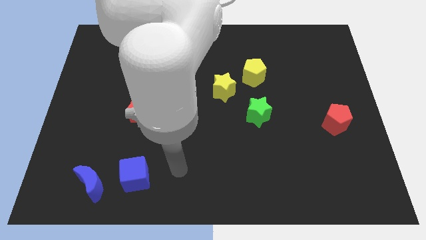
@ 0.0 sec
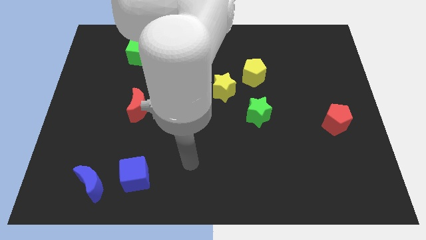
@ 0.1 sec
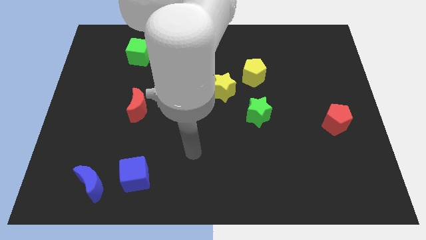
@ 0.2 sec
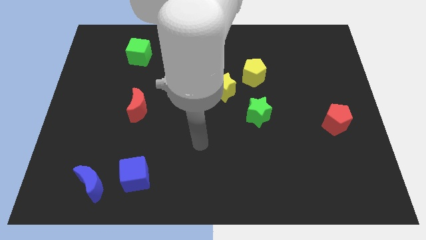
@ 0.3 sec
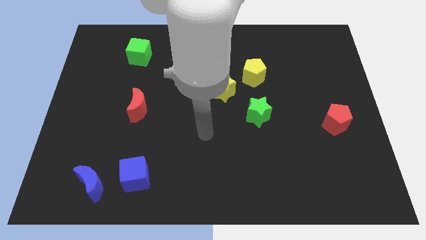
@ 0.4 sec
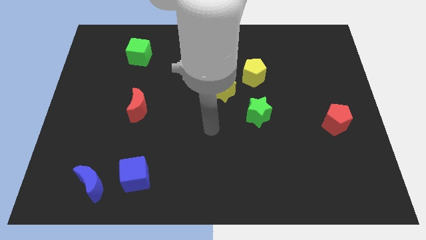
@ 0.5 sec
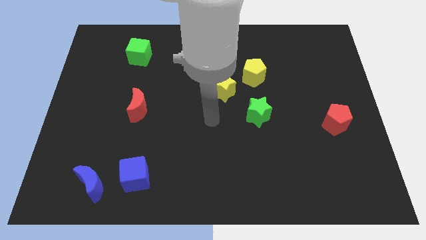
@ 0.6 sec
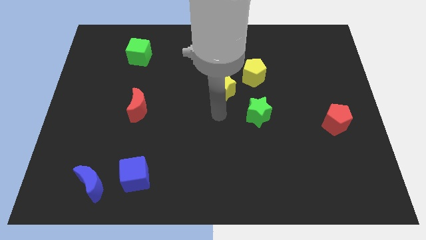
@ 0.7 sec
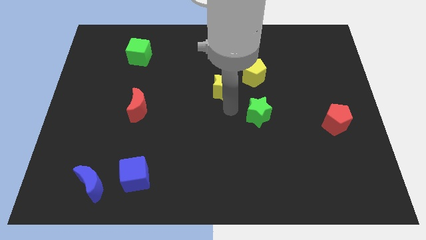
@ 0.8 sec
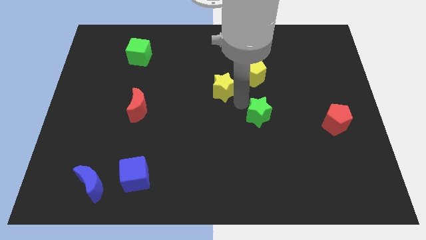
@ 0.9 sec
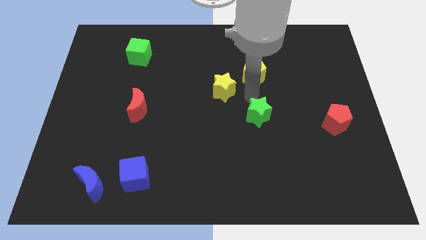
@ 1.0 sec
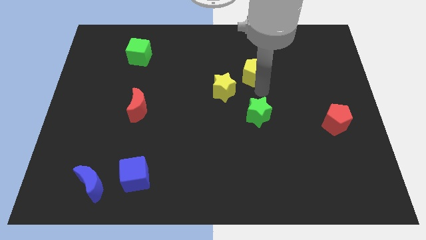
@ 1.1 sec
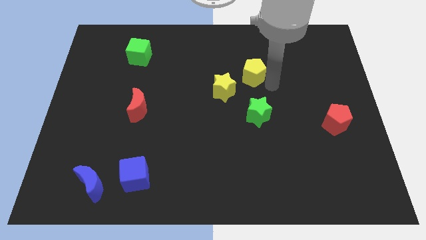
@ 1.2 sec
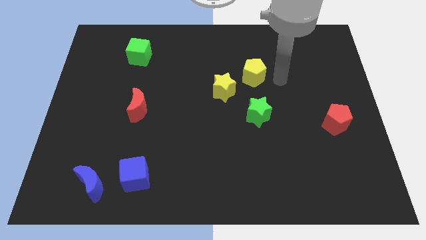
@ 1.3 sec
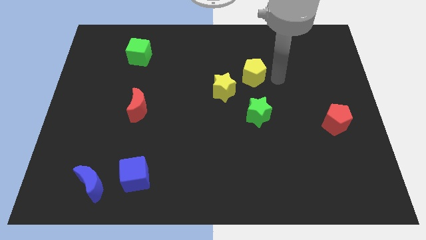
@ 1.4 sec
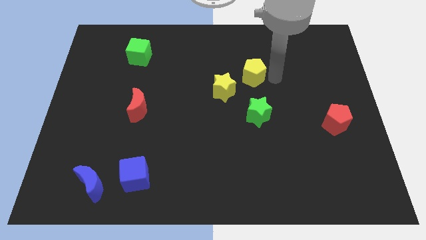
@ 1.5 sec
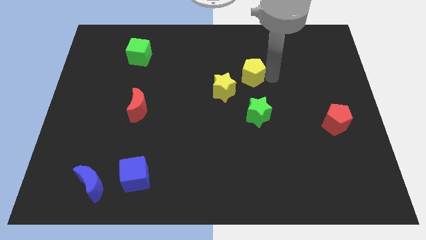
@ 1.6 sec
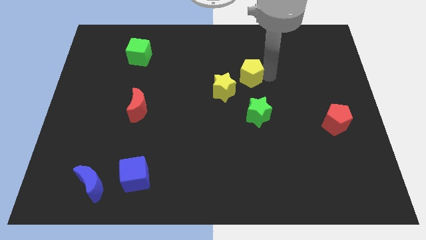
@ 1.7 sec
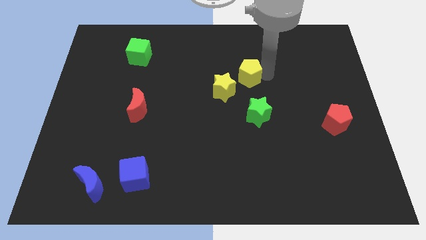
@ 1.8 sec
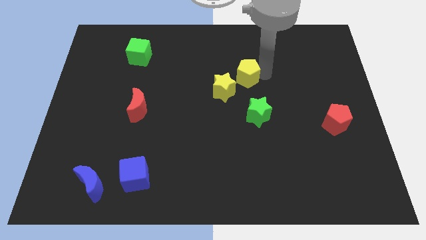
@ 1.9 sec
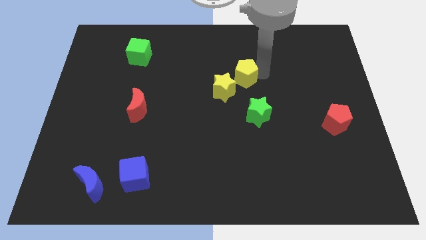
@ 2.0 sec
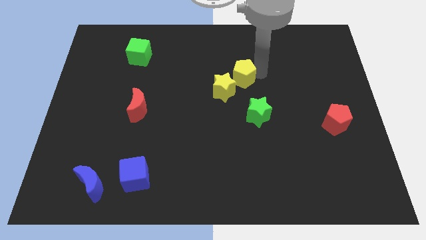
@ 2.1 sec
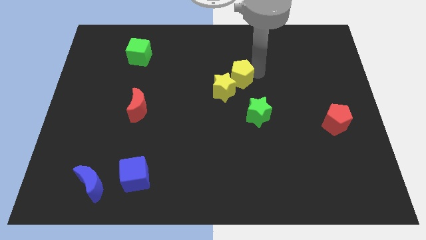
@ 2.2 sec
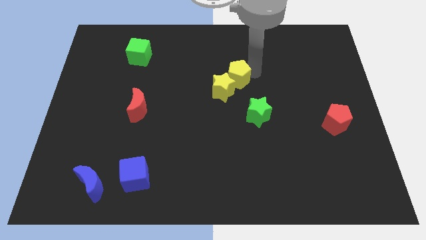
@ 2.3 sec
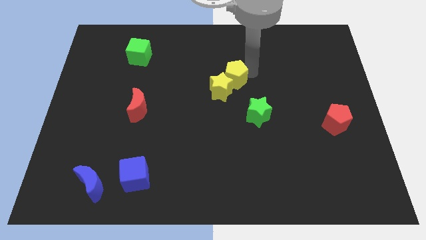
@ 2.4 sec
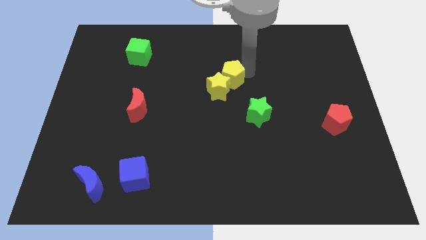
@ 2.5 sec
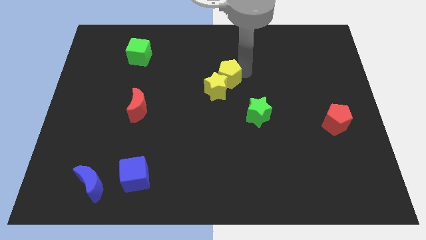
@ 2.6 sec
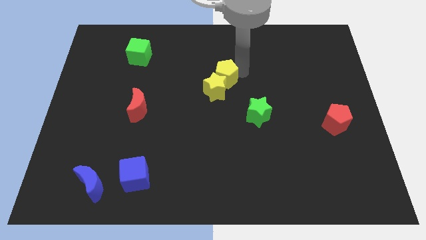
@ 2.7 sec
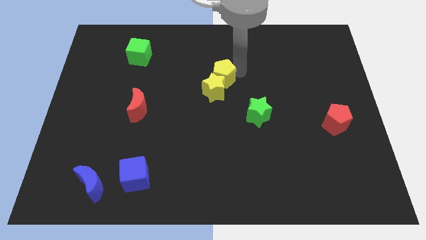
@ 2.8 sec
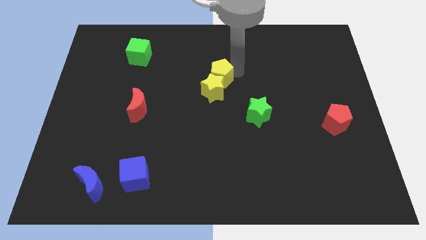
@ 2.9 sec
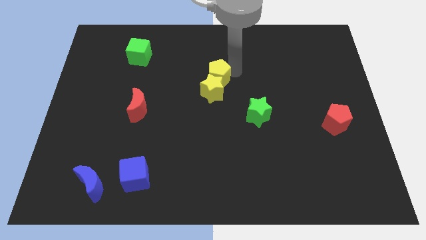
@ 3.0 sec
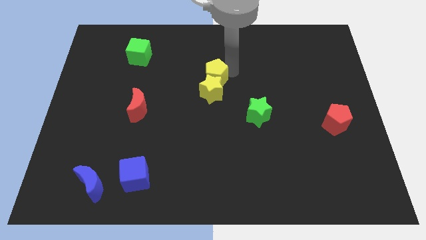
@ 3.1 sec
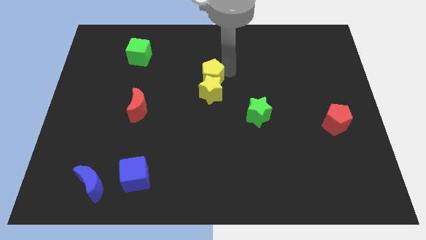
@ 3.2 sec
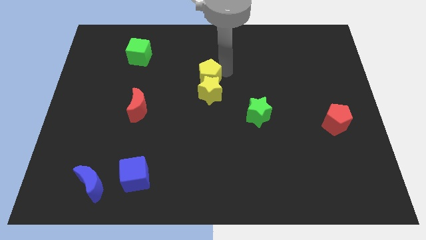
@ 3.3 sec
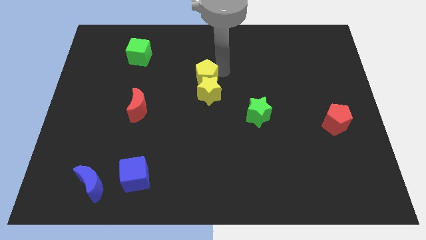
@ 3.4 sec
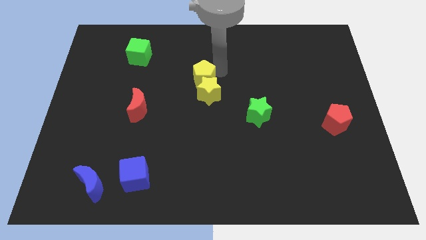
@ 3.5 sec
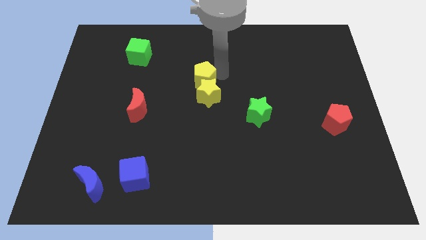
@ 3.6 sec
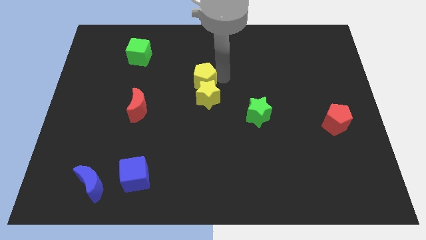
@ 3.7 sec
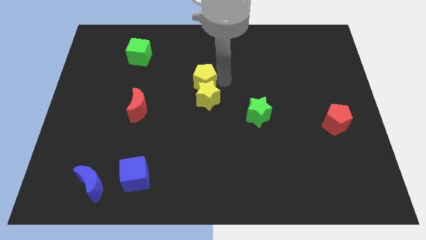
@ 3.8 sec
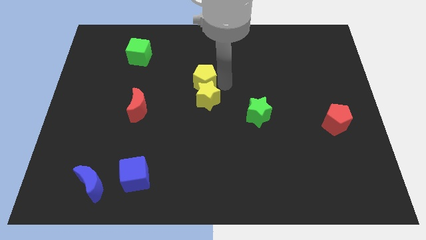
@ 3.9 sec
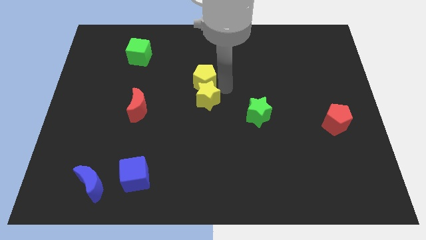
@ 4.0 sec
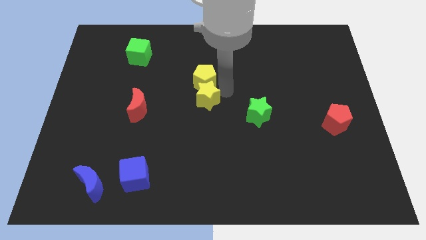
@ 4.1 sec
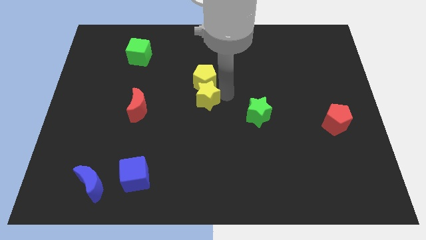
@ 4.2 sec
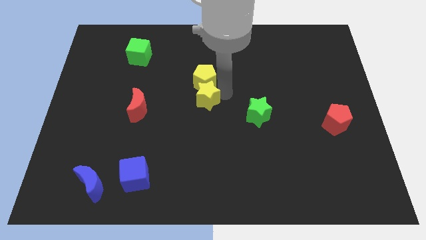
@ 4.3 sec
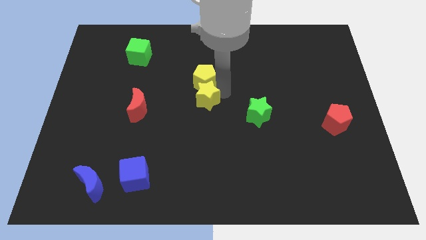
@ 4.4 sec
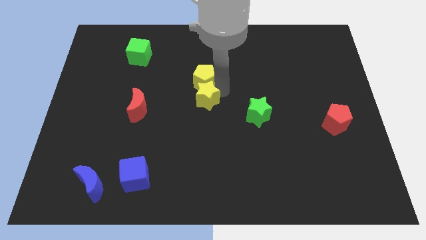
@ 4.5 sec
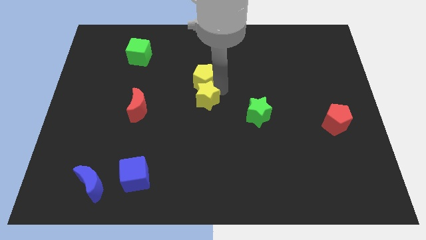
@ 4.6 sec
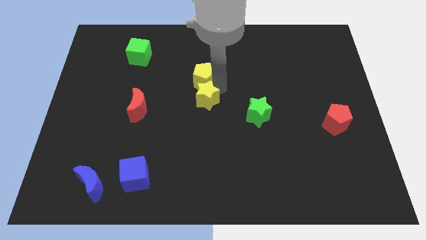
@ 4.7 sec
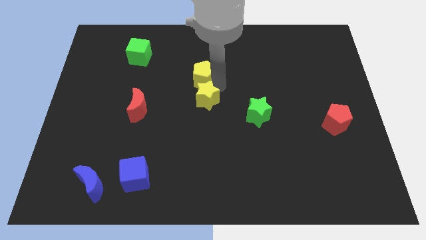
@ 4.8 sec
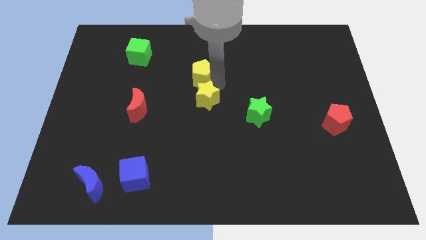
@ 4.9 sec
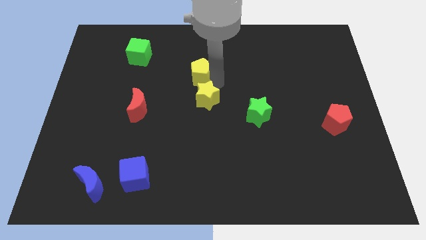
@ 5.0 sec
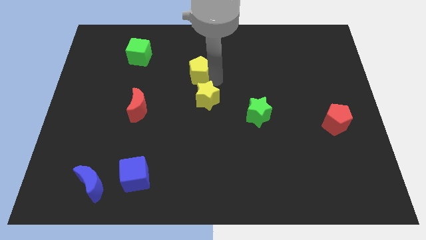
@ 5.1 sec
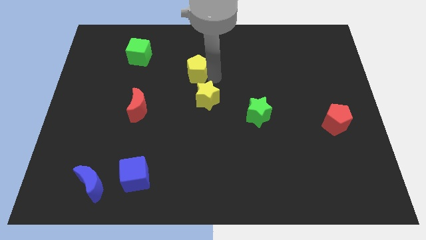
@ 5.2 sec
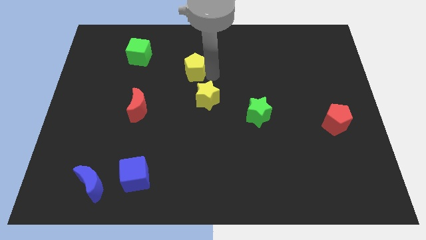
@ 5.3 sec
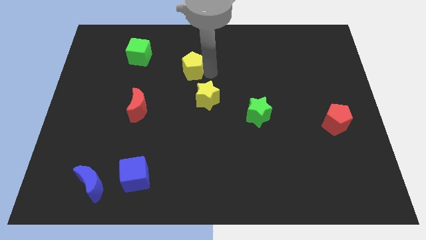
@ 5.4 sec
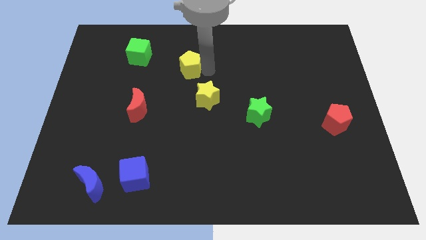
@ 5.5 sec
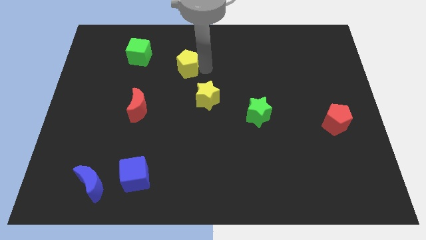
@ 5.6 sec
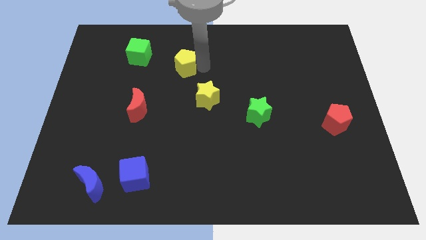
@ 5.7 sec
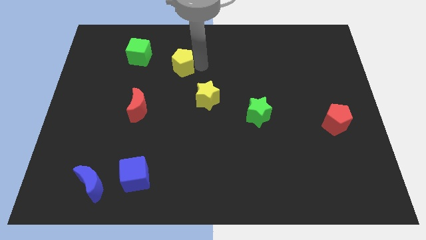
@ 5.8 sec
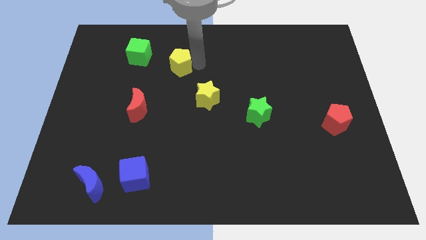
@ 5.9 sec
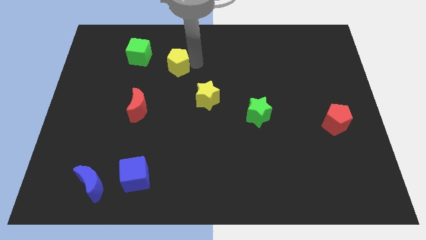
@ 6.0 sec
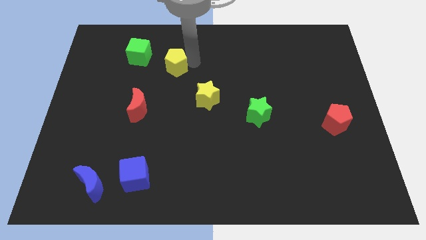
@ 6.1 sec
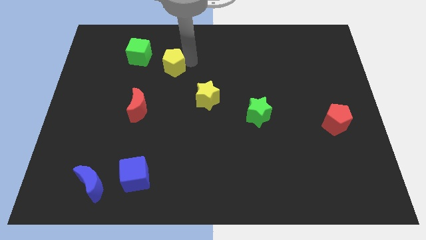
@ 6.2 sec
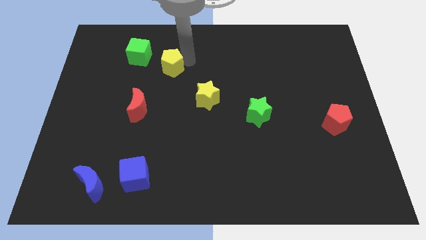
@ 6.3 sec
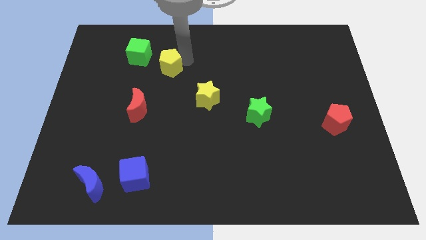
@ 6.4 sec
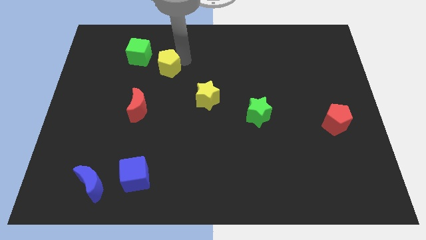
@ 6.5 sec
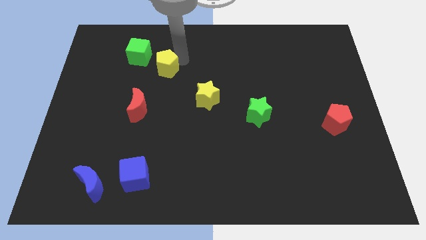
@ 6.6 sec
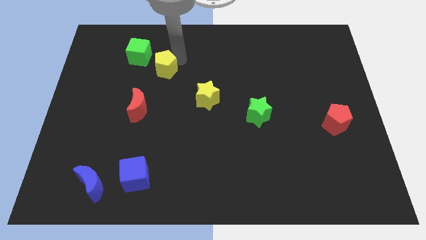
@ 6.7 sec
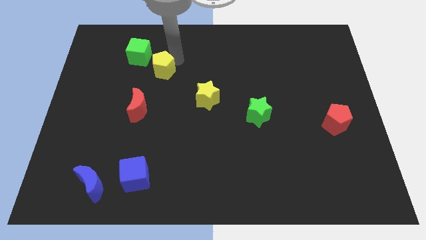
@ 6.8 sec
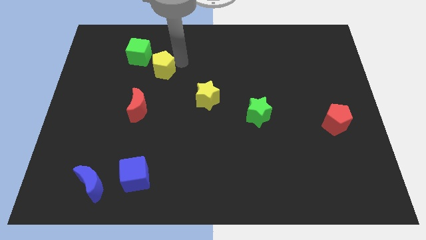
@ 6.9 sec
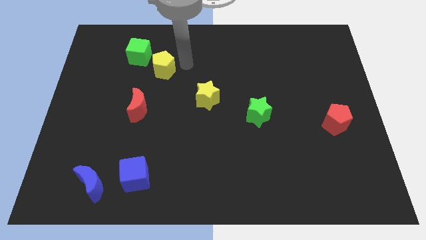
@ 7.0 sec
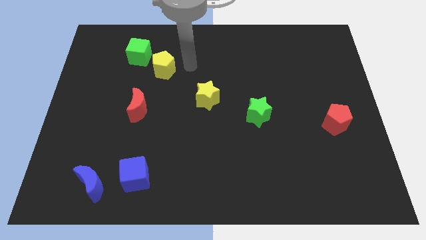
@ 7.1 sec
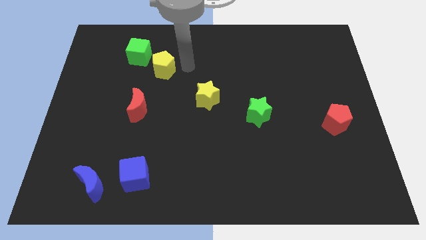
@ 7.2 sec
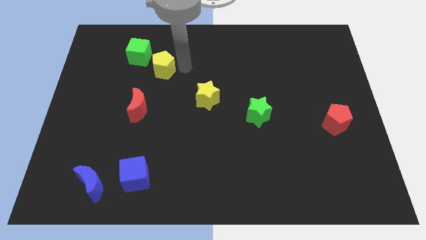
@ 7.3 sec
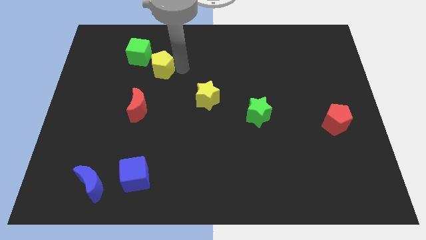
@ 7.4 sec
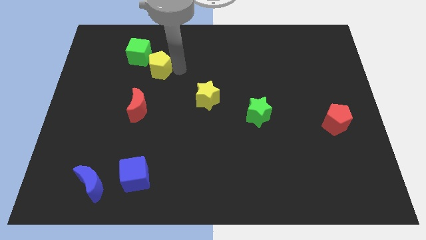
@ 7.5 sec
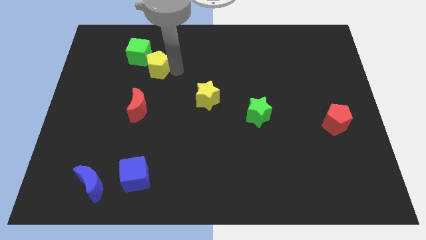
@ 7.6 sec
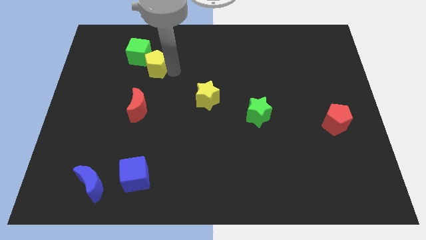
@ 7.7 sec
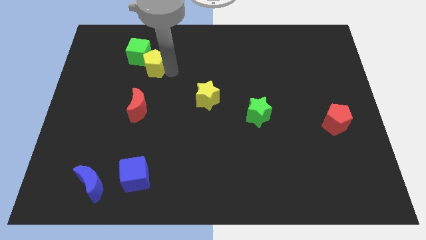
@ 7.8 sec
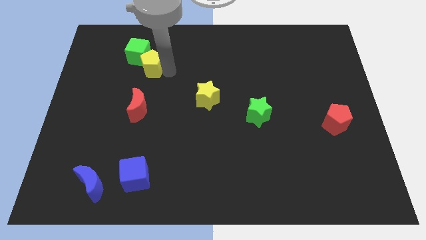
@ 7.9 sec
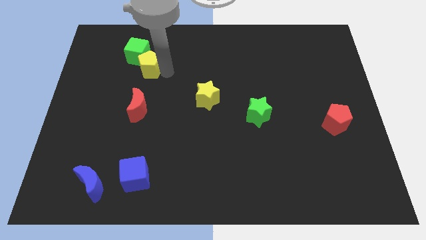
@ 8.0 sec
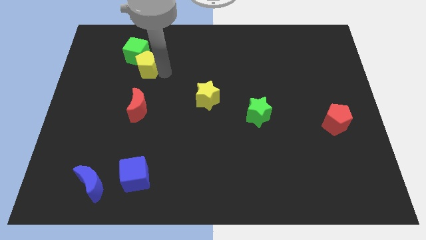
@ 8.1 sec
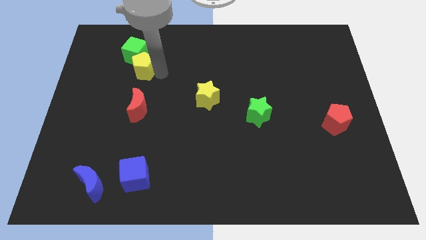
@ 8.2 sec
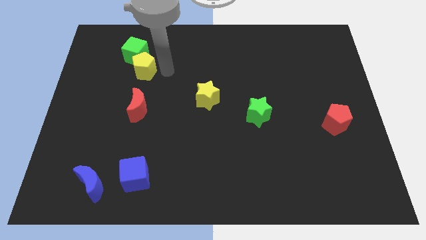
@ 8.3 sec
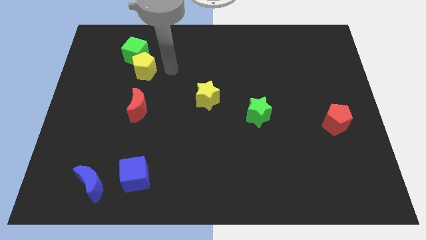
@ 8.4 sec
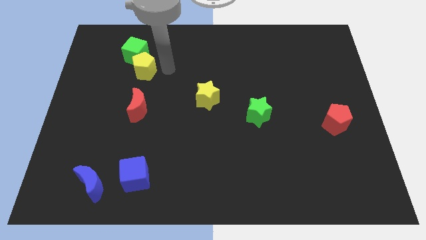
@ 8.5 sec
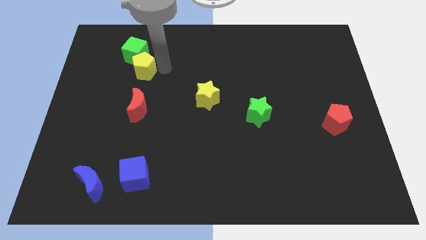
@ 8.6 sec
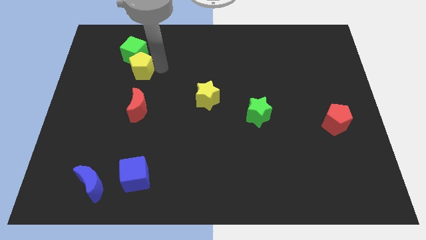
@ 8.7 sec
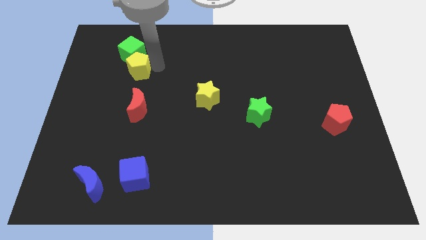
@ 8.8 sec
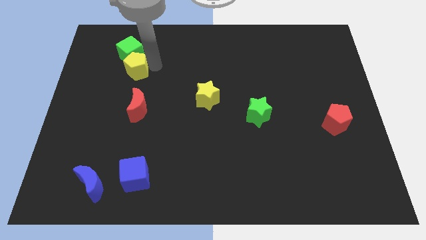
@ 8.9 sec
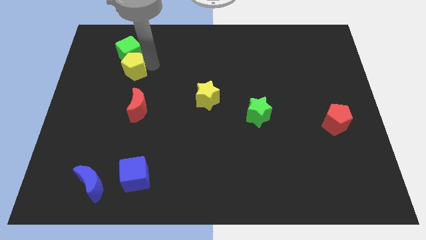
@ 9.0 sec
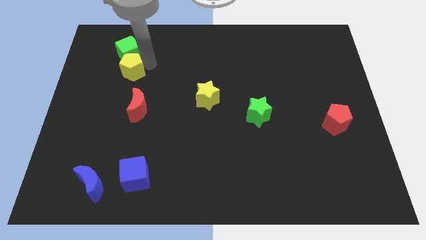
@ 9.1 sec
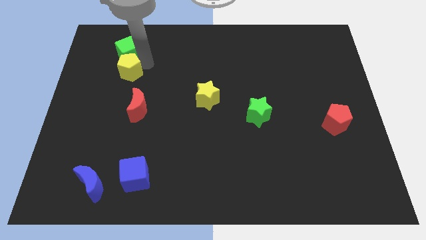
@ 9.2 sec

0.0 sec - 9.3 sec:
push the yellow pentagon to the bottom left side of the green cube
